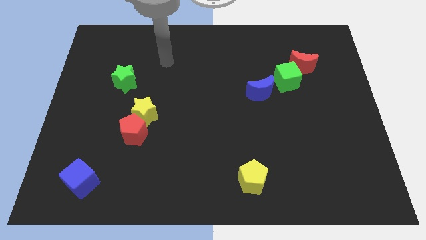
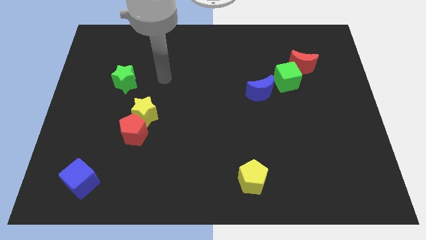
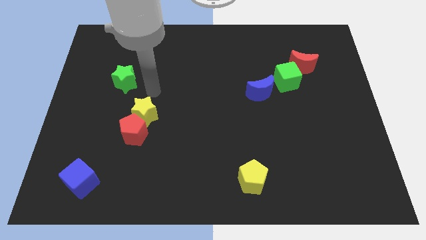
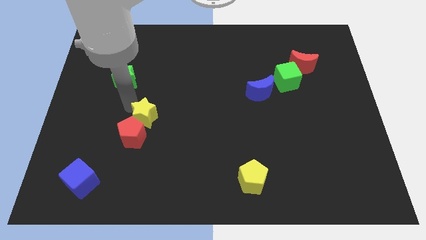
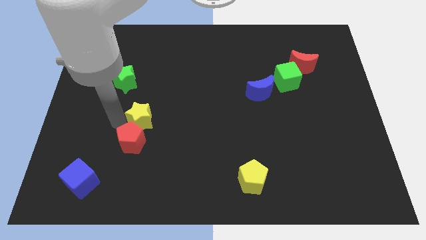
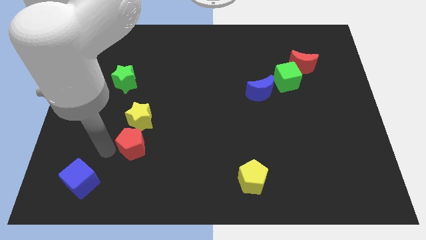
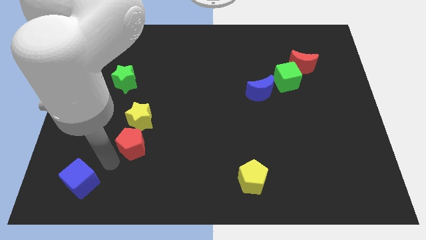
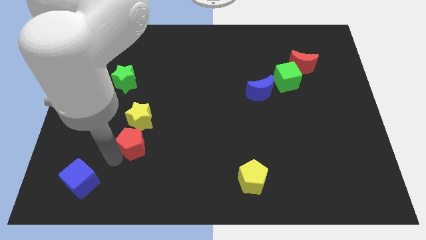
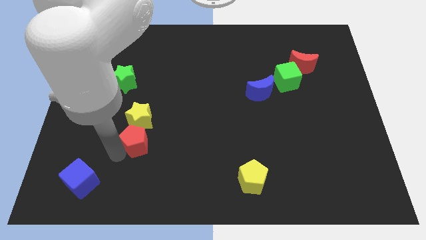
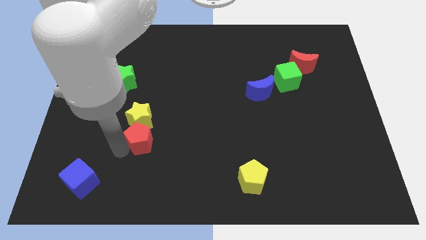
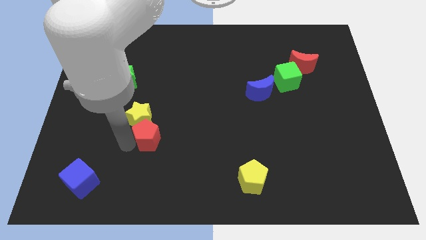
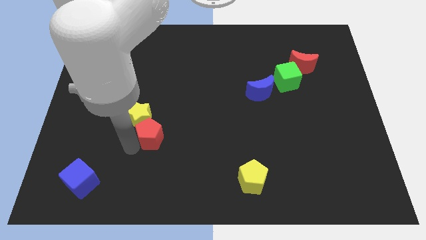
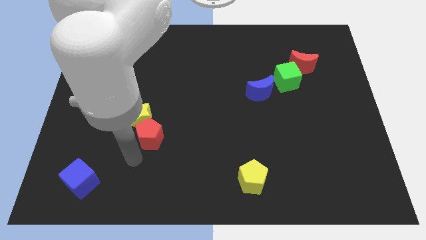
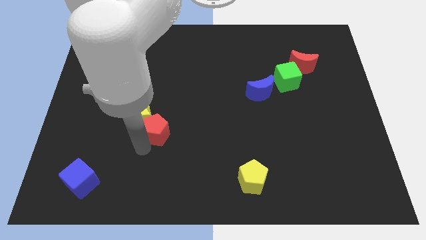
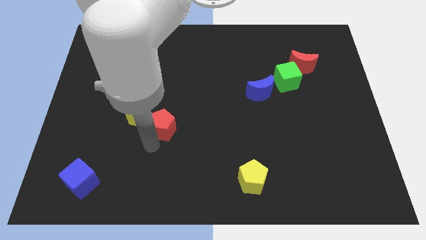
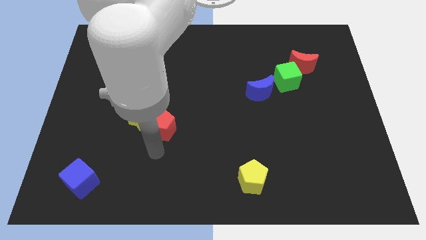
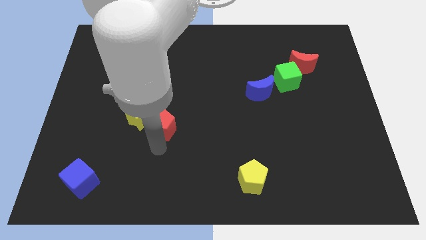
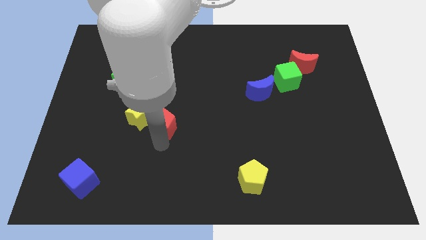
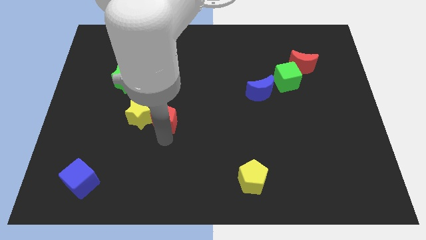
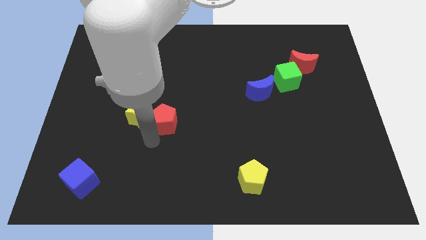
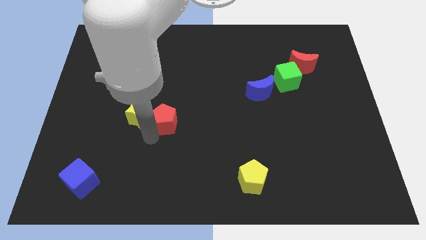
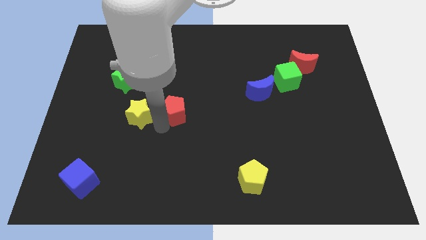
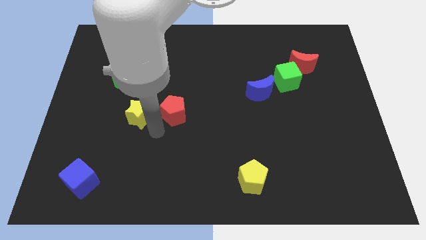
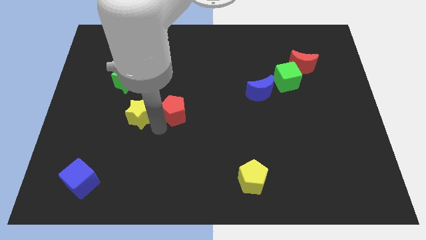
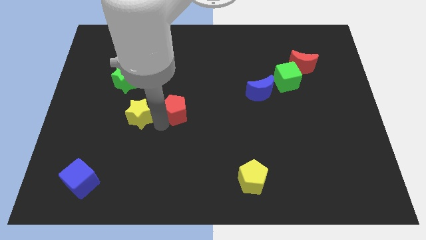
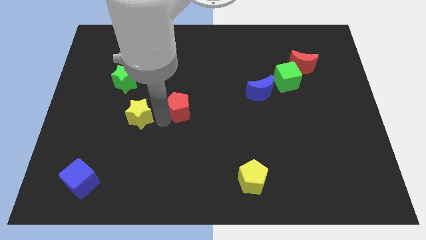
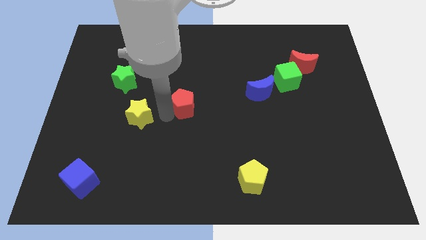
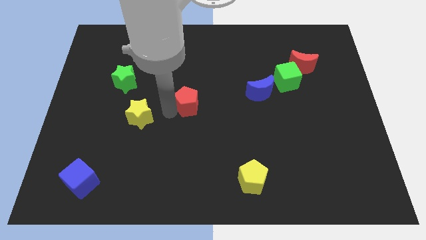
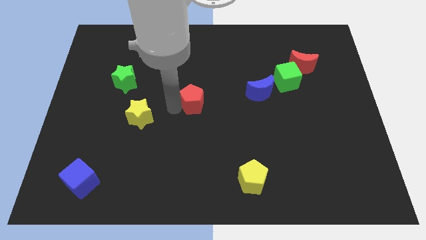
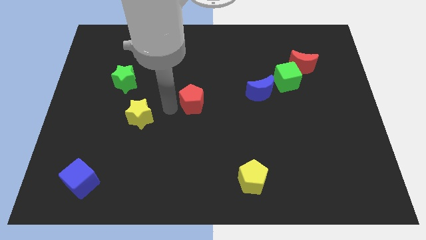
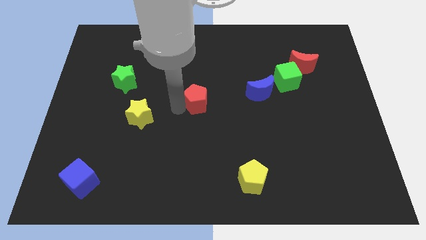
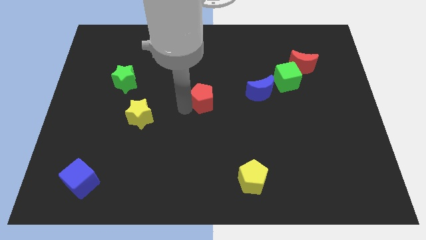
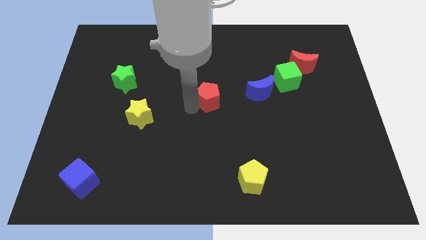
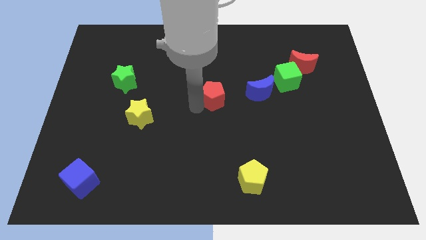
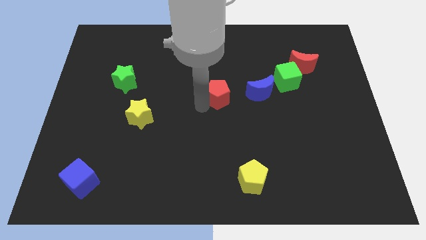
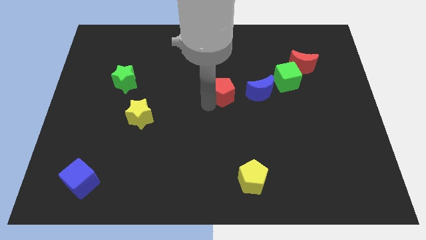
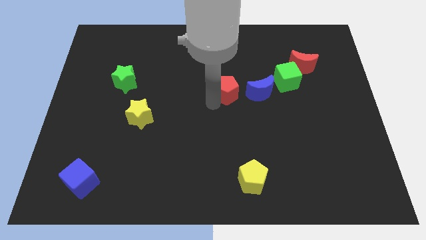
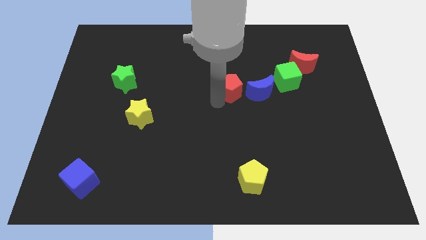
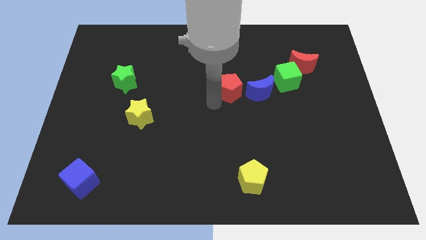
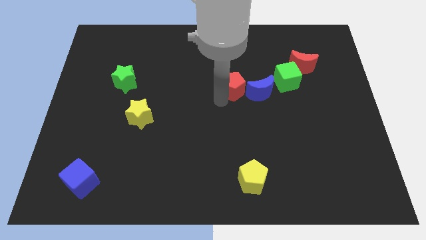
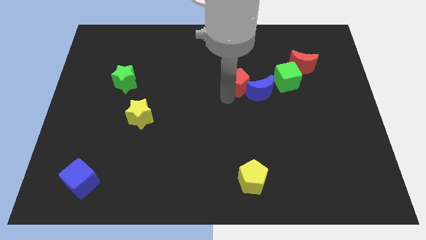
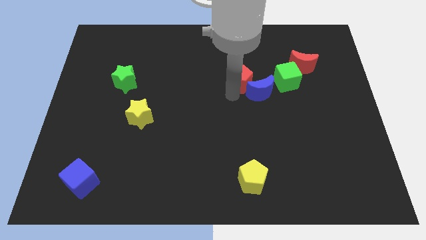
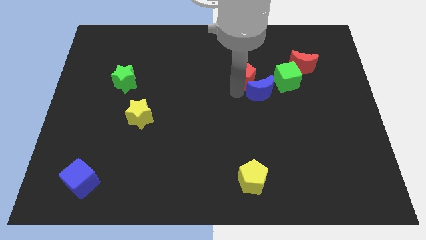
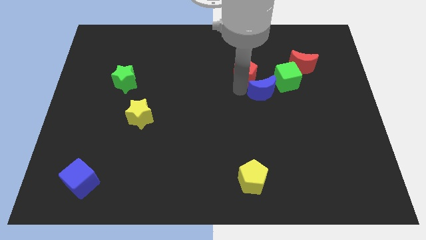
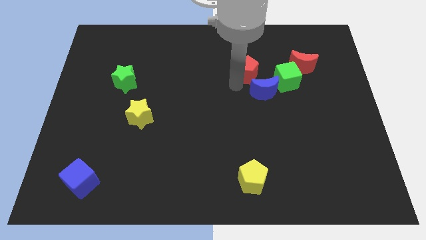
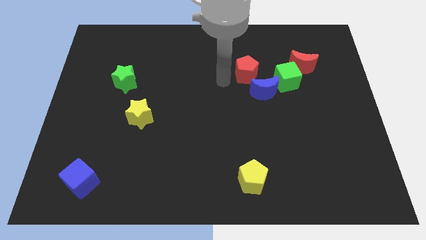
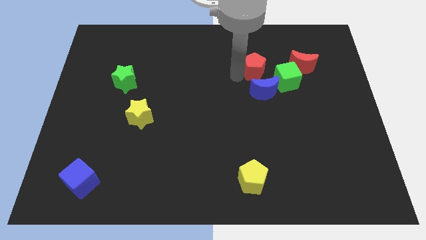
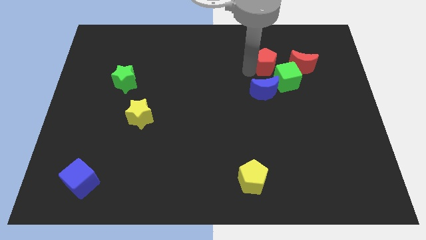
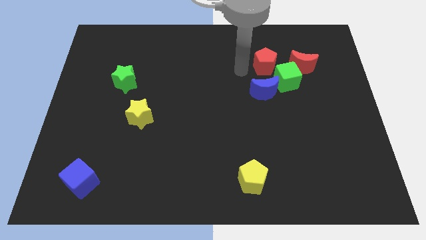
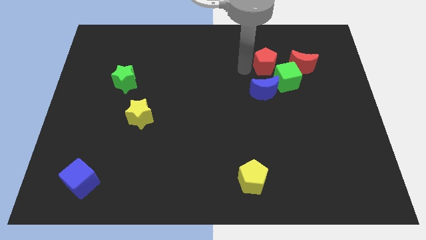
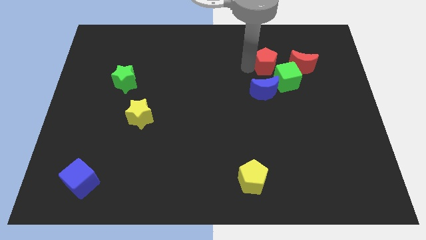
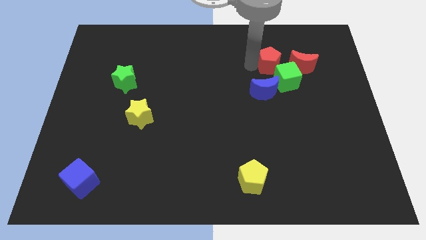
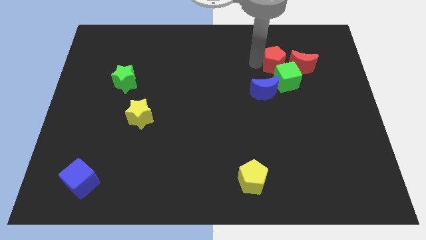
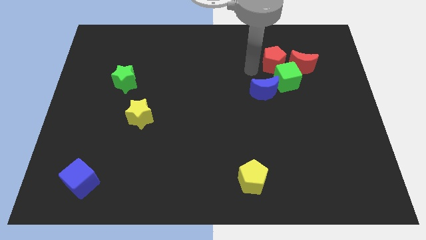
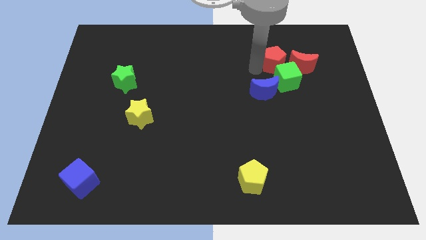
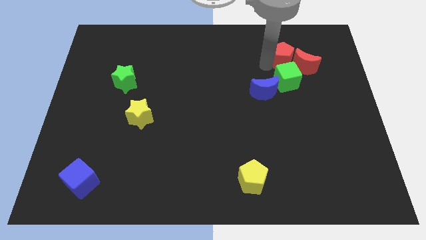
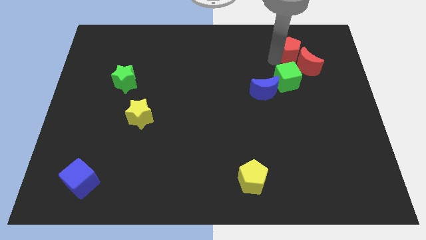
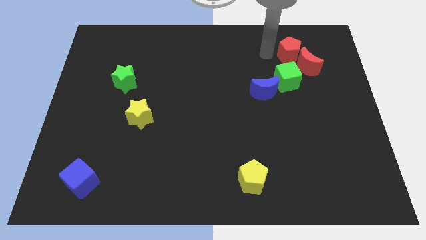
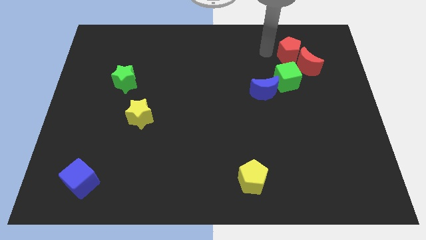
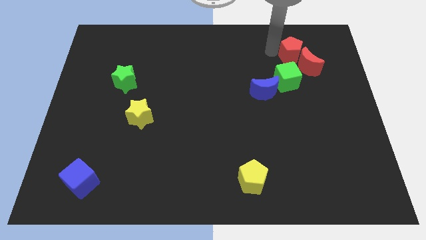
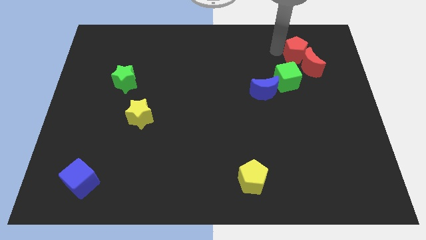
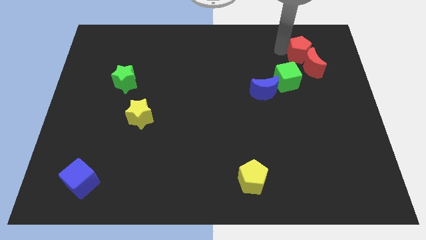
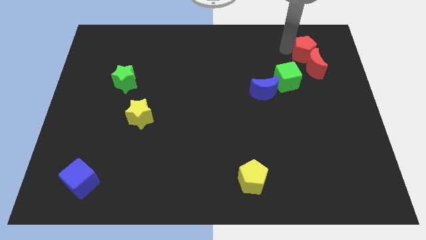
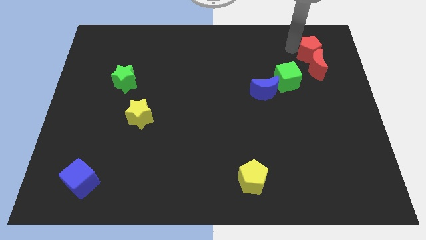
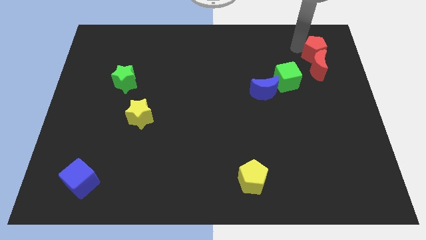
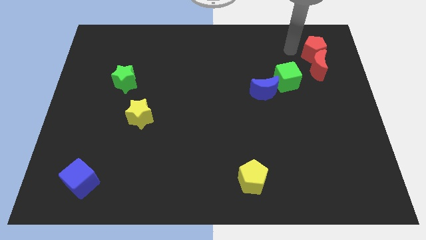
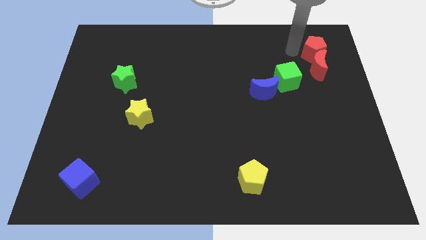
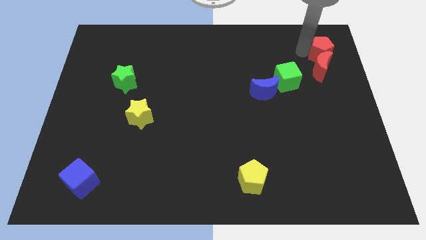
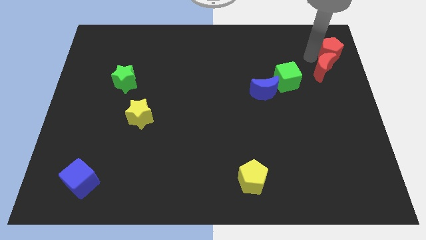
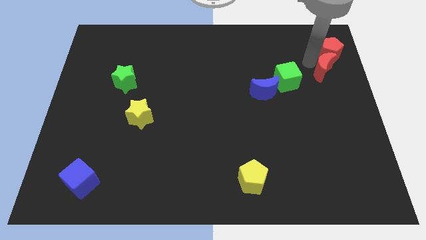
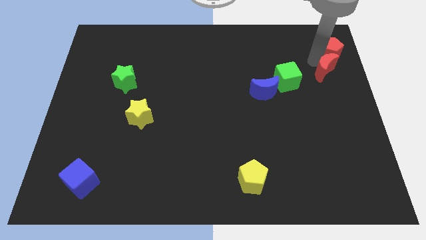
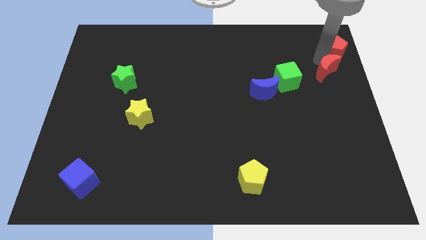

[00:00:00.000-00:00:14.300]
push the red pentagon to the top right of the board

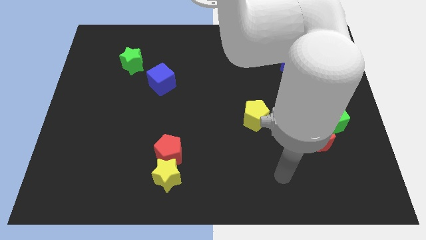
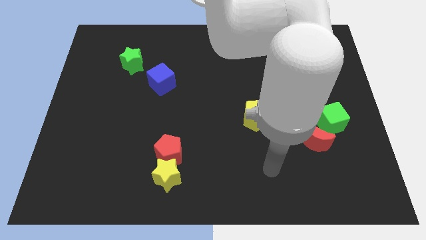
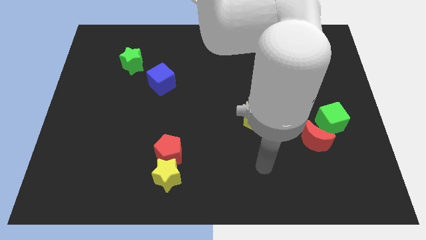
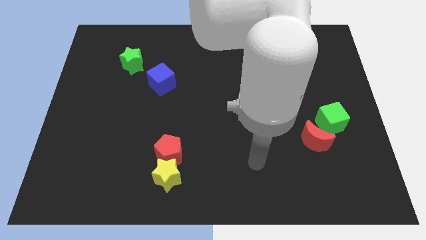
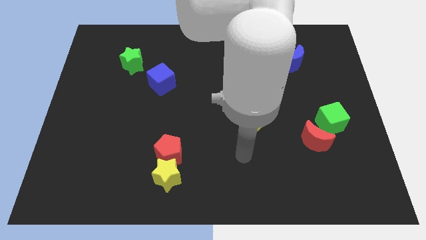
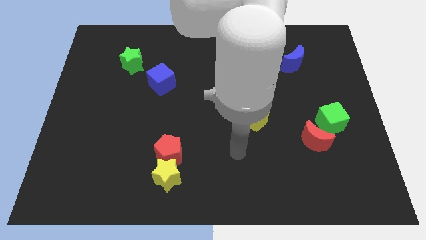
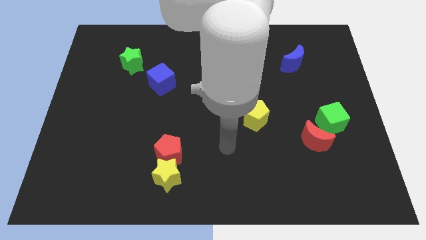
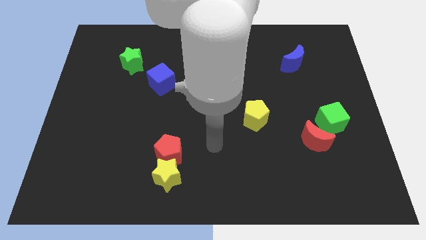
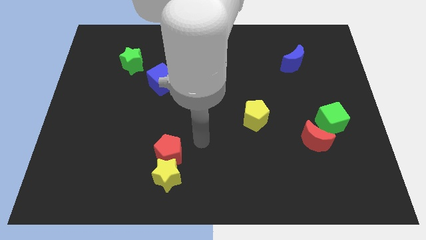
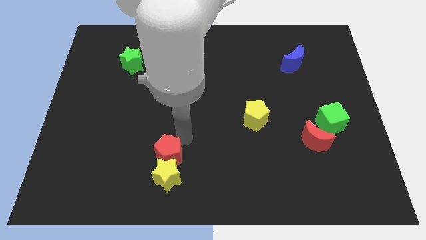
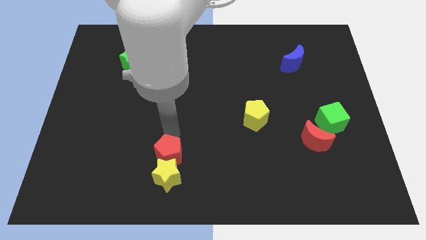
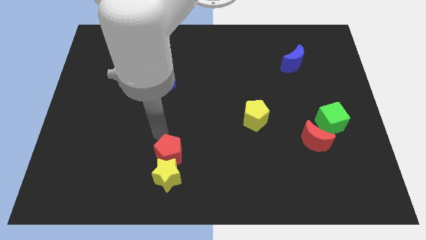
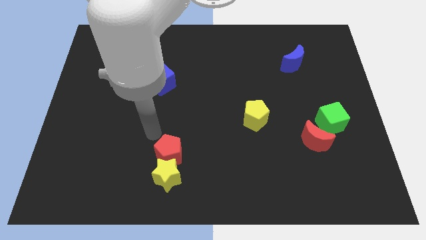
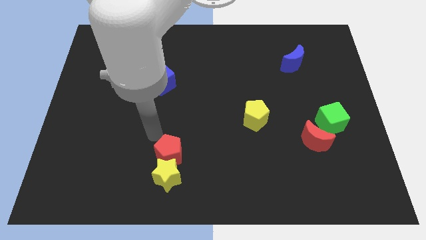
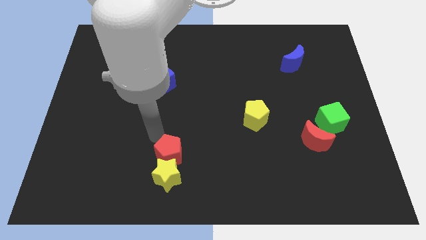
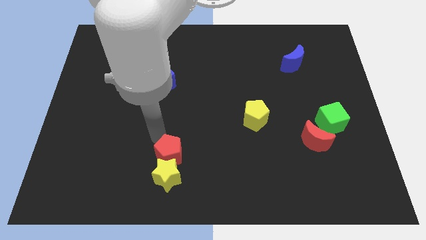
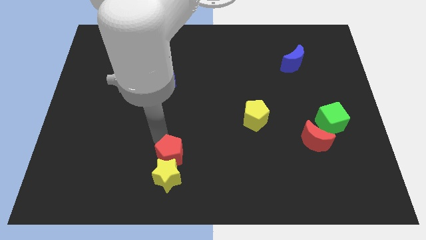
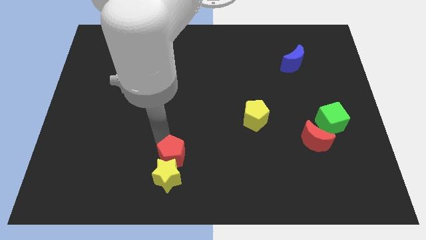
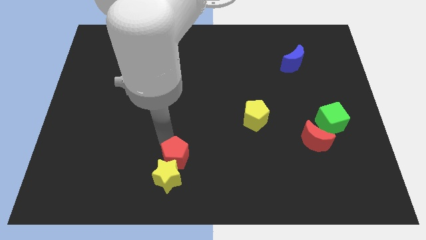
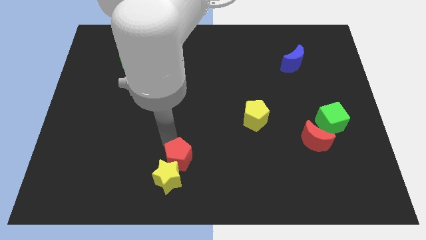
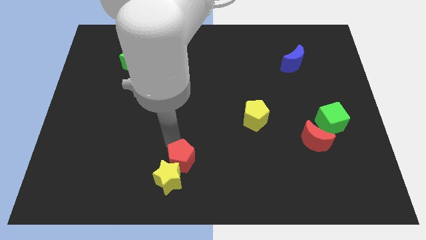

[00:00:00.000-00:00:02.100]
slide the red pentagon to the bottom side
